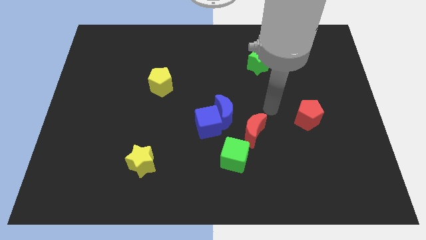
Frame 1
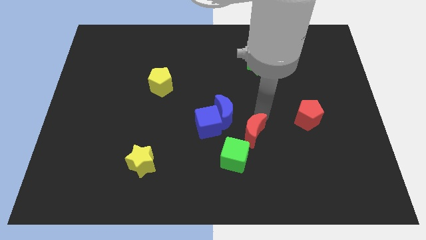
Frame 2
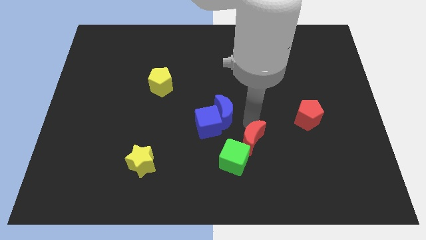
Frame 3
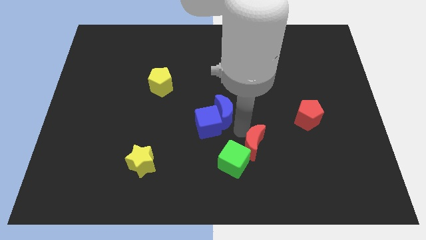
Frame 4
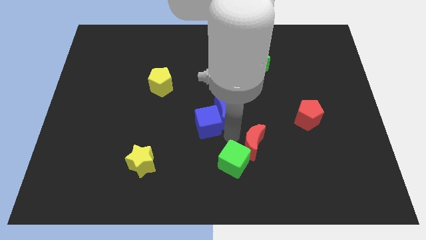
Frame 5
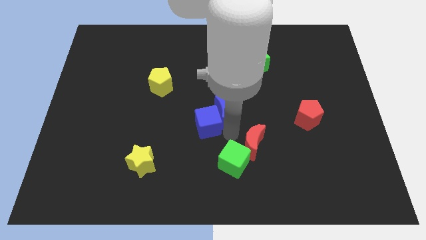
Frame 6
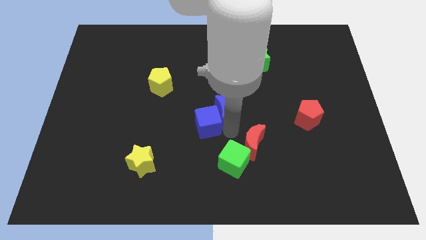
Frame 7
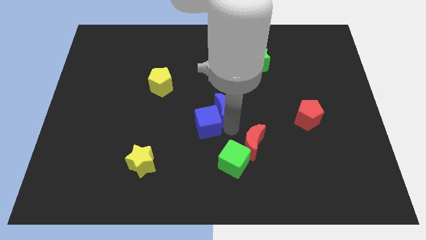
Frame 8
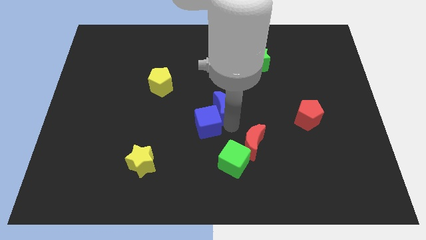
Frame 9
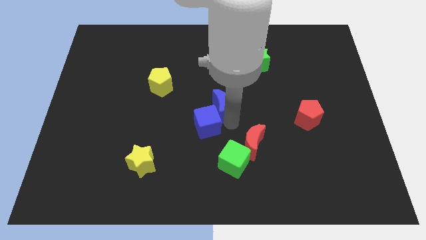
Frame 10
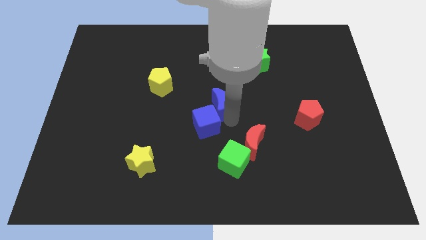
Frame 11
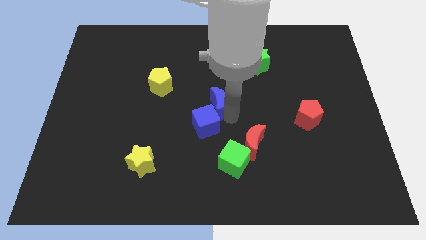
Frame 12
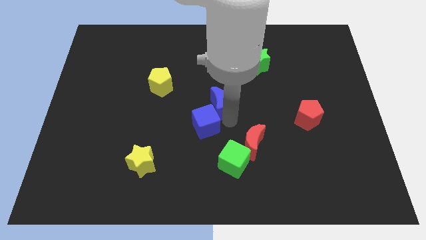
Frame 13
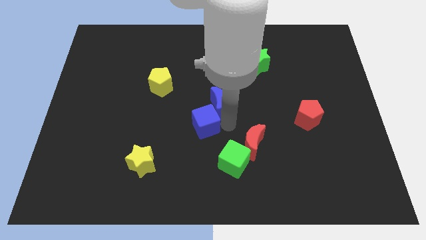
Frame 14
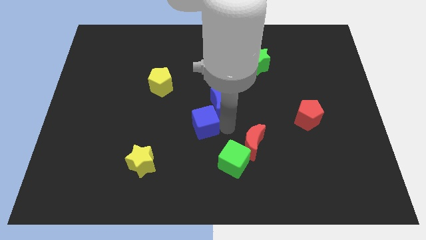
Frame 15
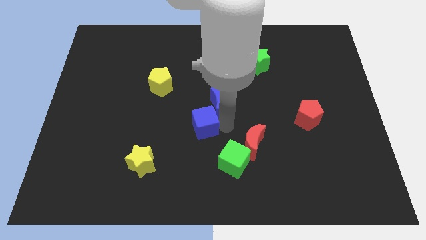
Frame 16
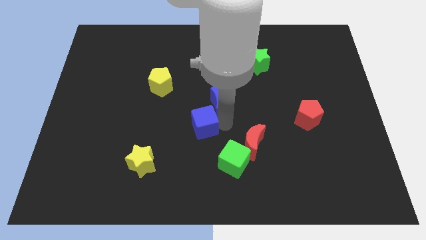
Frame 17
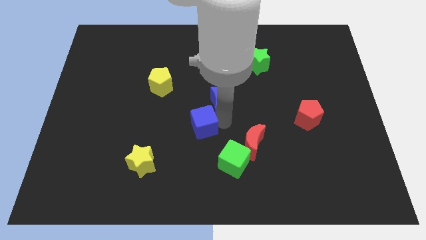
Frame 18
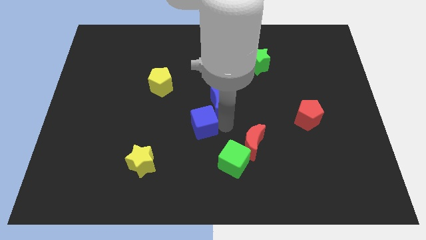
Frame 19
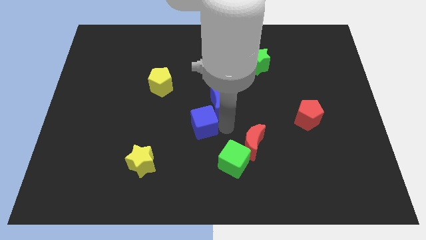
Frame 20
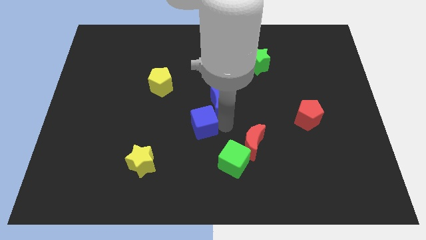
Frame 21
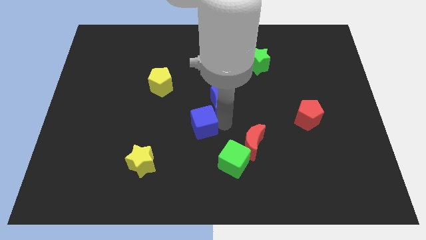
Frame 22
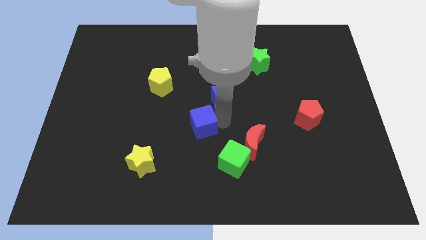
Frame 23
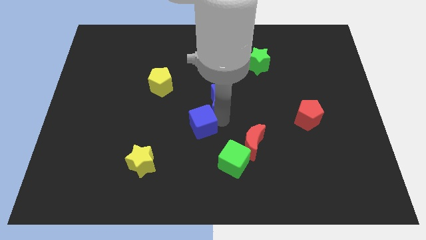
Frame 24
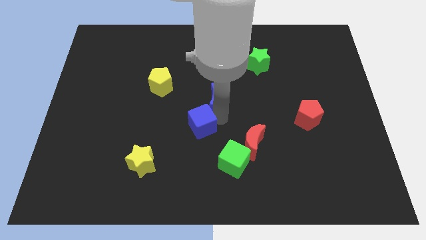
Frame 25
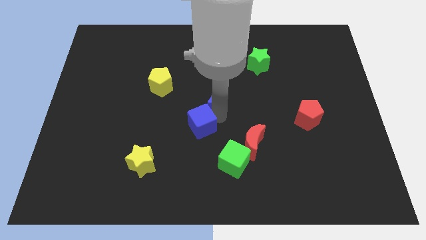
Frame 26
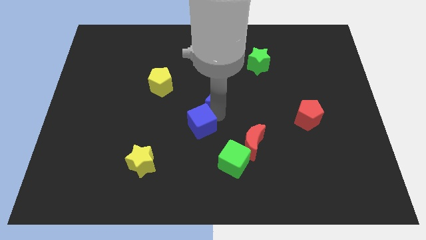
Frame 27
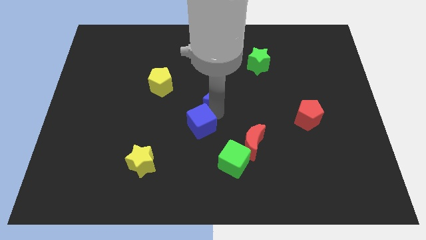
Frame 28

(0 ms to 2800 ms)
move the blue moon away from the blue cube and red moon

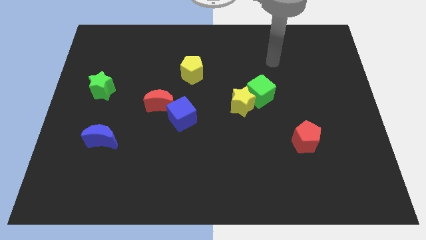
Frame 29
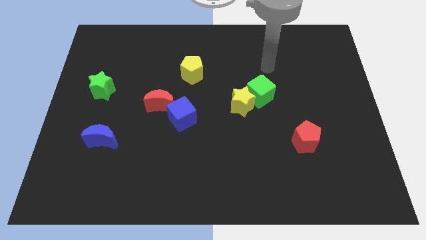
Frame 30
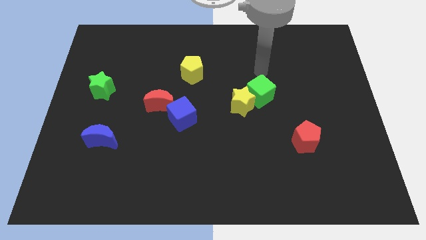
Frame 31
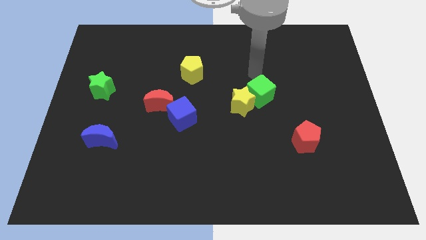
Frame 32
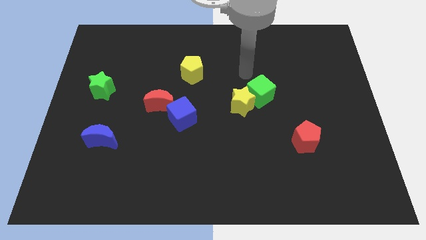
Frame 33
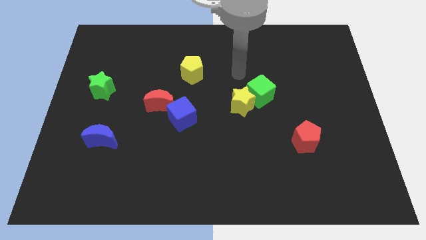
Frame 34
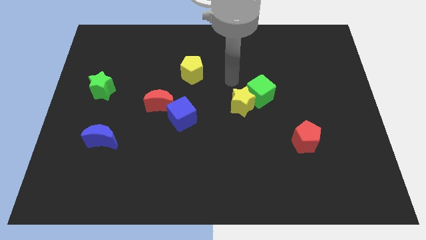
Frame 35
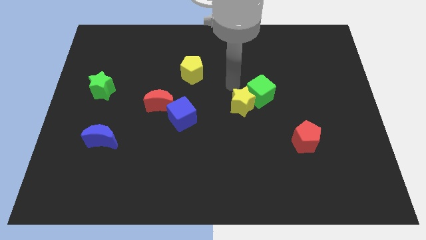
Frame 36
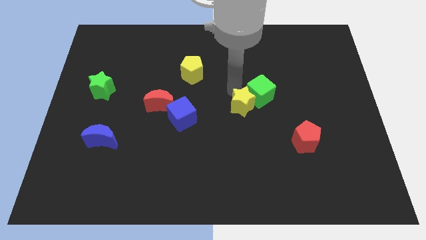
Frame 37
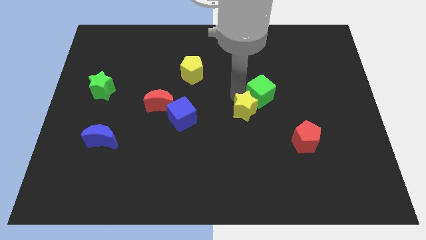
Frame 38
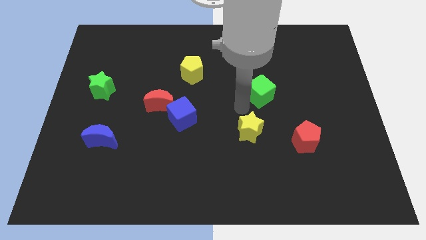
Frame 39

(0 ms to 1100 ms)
pull the green cube apart from the yellow star

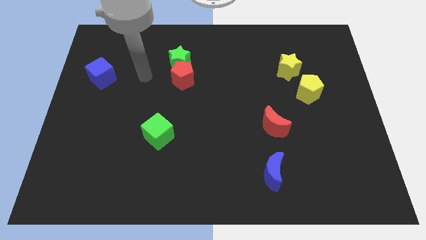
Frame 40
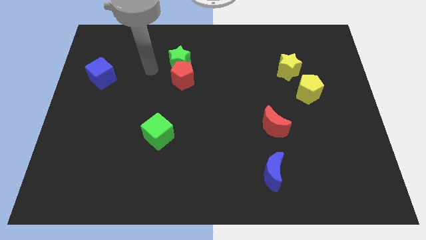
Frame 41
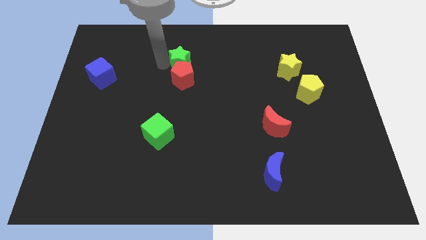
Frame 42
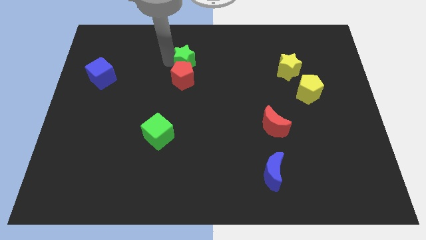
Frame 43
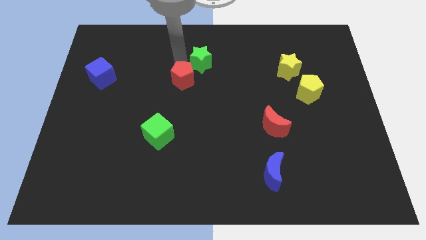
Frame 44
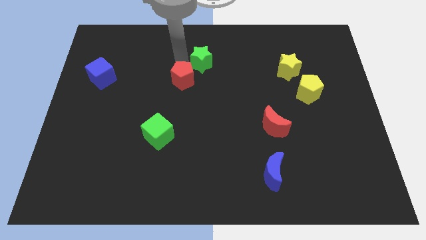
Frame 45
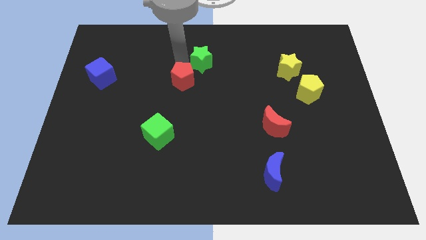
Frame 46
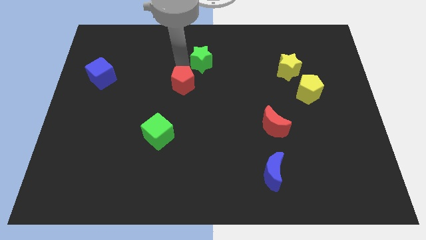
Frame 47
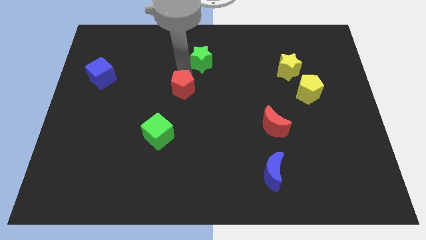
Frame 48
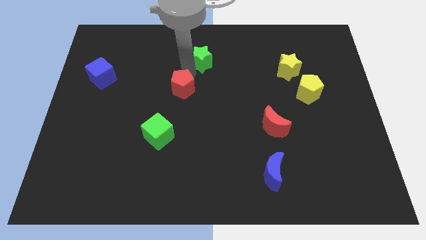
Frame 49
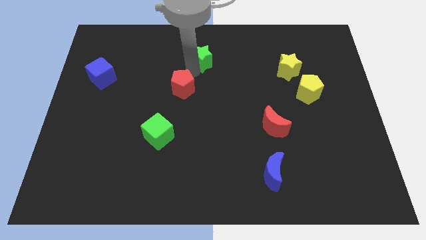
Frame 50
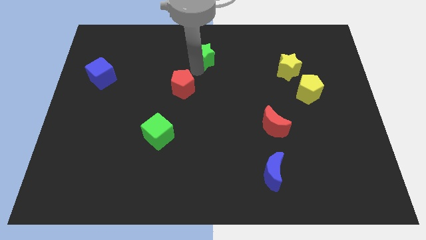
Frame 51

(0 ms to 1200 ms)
separate the red pentagon from the green star

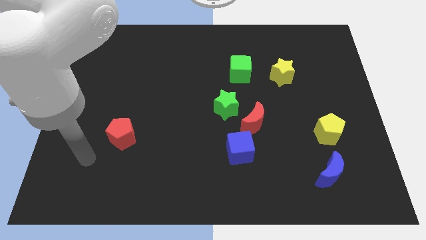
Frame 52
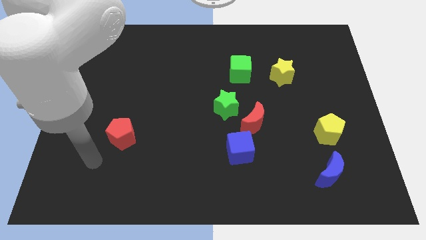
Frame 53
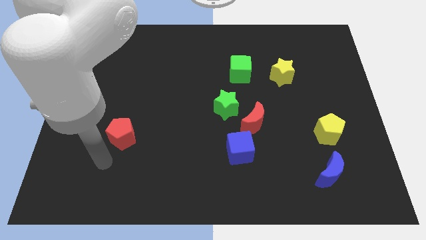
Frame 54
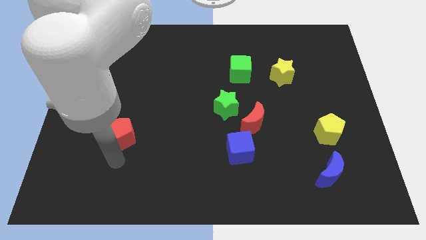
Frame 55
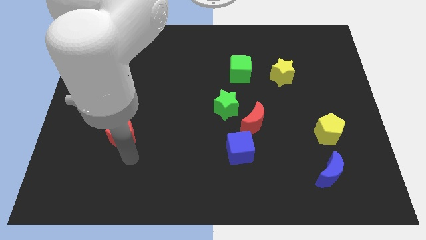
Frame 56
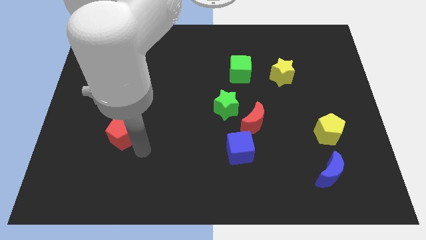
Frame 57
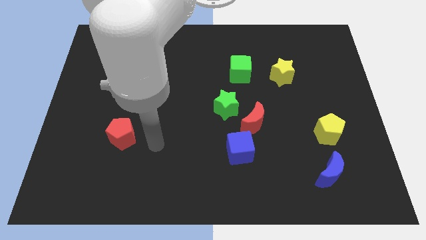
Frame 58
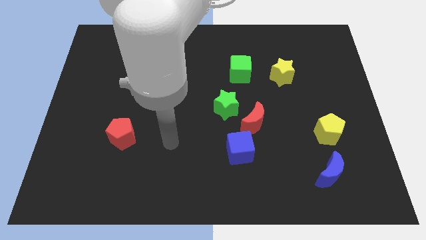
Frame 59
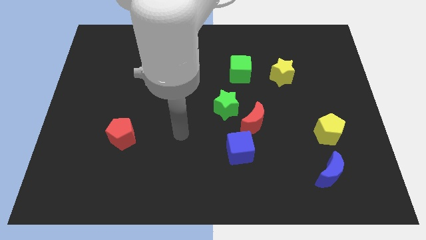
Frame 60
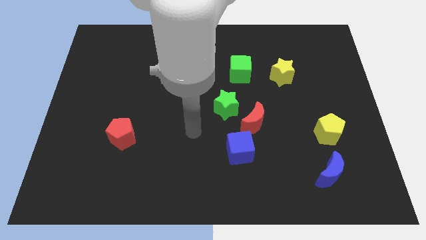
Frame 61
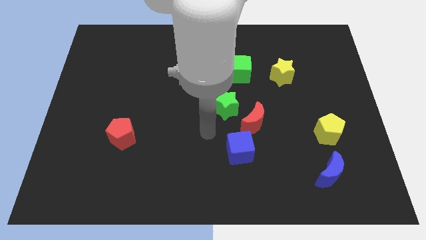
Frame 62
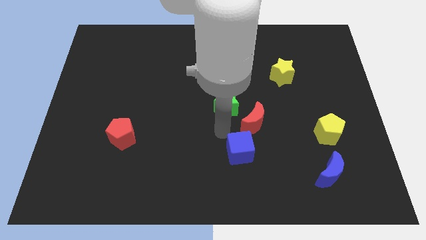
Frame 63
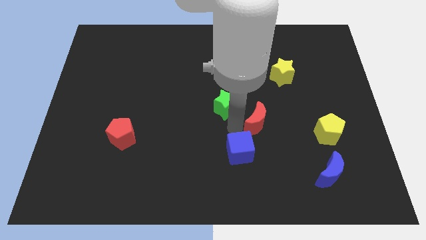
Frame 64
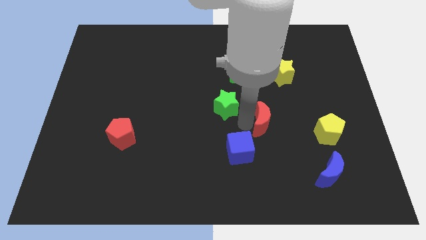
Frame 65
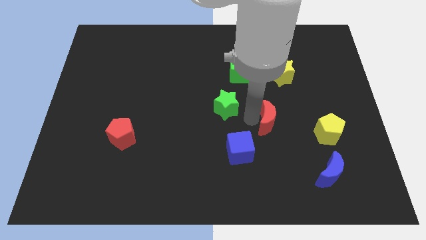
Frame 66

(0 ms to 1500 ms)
separate the green star from the red moon

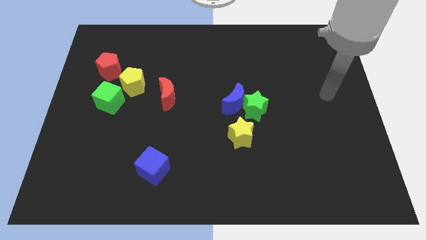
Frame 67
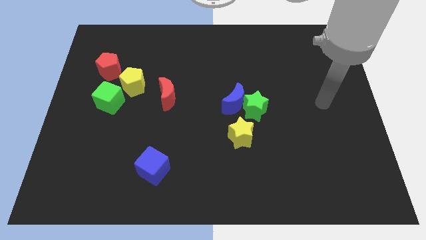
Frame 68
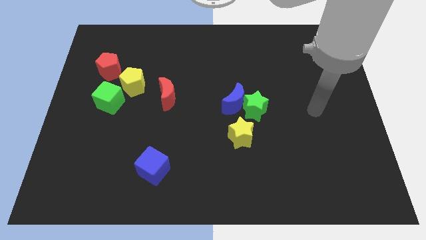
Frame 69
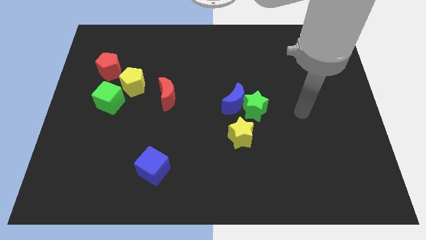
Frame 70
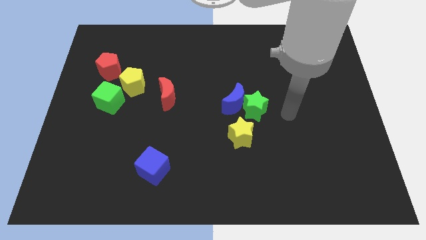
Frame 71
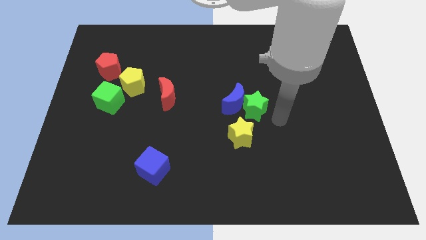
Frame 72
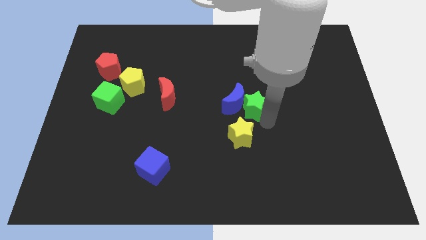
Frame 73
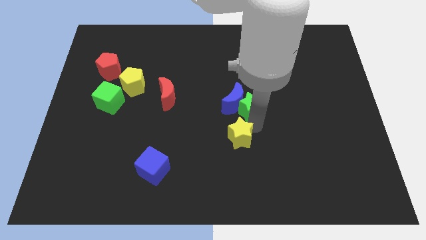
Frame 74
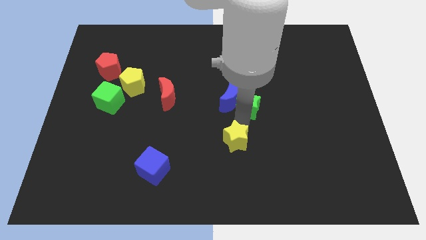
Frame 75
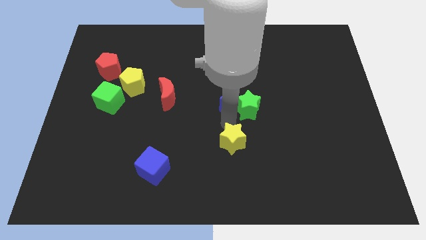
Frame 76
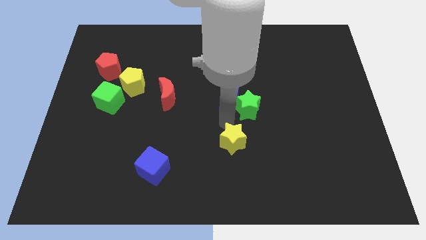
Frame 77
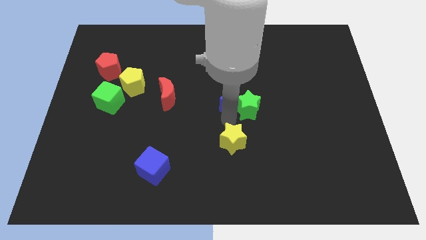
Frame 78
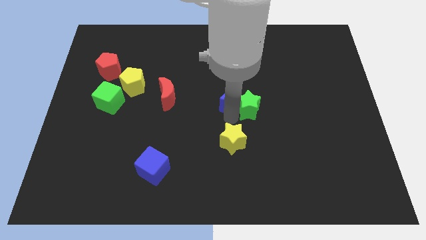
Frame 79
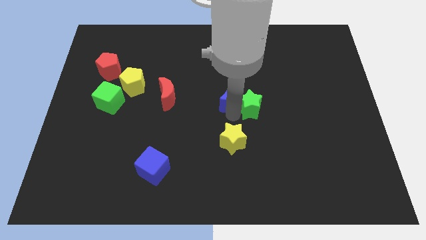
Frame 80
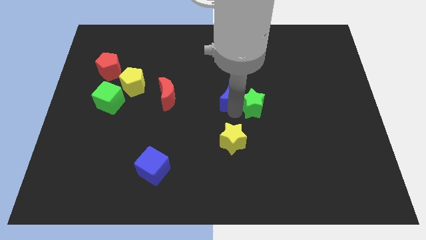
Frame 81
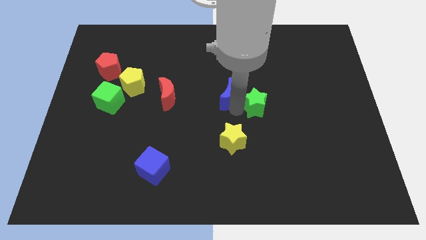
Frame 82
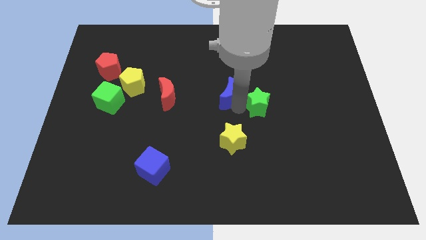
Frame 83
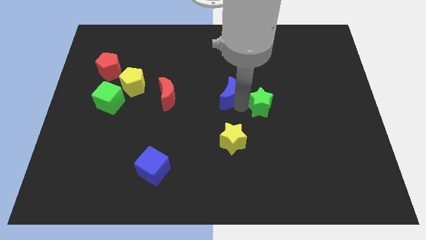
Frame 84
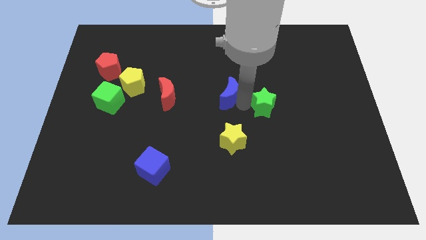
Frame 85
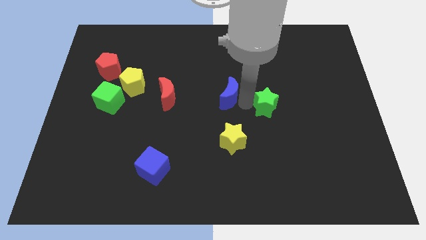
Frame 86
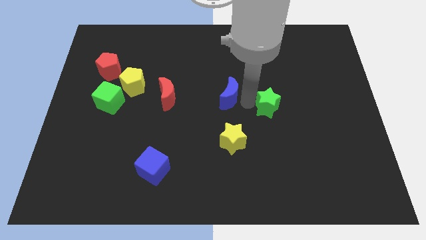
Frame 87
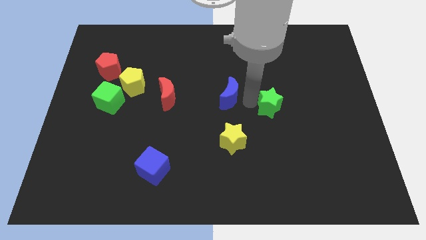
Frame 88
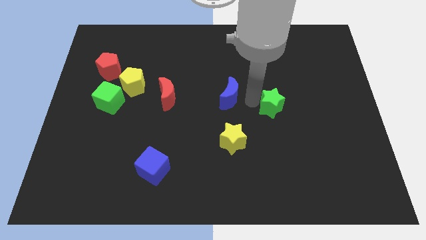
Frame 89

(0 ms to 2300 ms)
move the green star away from the blue moon and yellow star

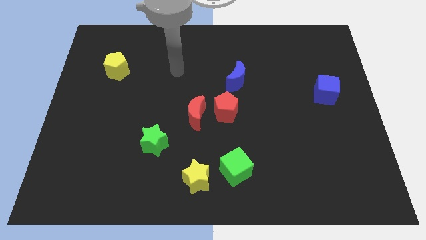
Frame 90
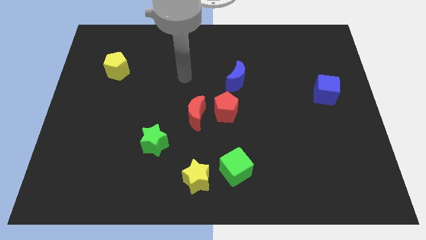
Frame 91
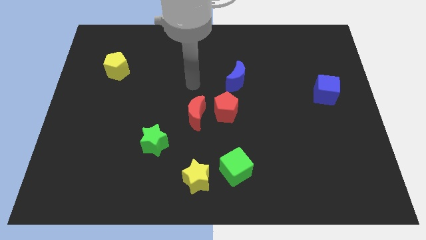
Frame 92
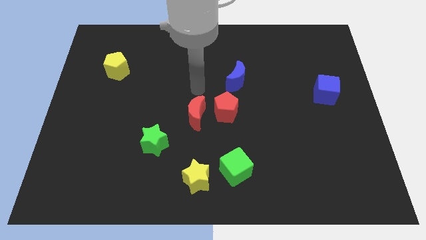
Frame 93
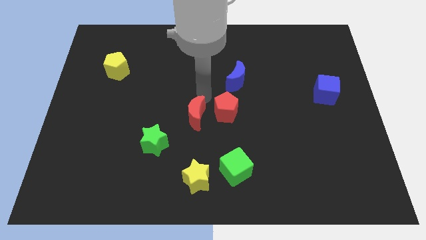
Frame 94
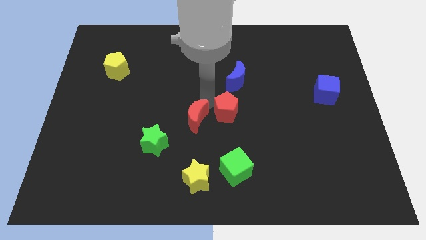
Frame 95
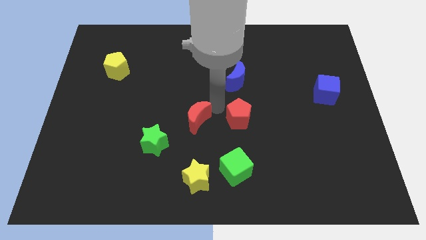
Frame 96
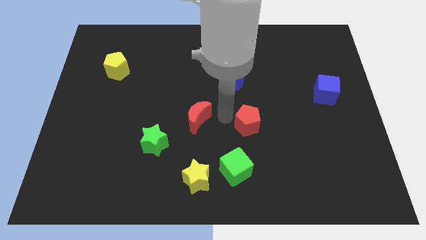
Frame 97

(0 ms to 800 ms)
move the red moon away from the red pentagon
